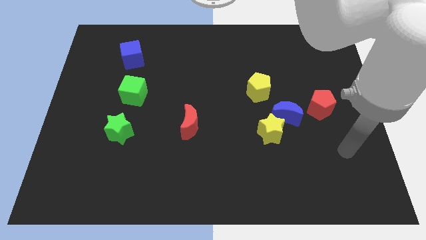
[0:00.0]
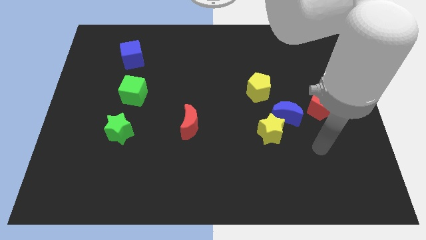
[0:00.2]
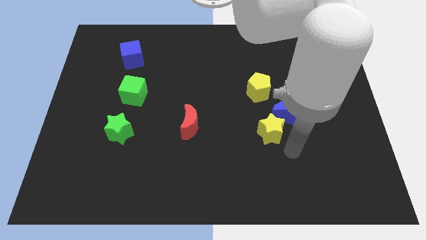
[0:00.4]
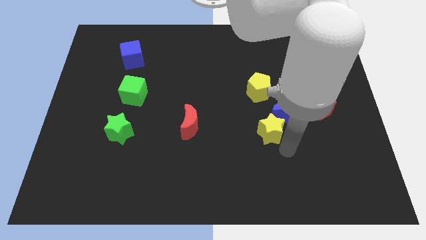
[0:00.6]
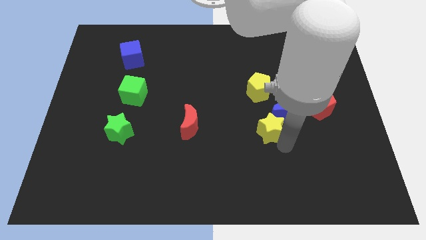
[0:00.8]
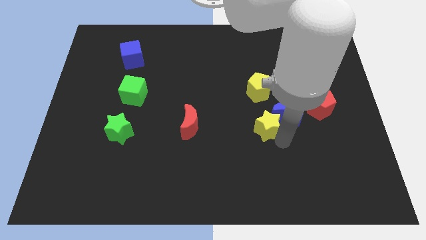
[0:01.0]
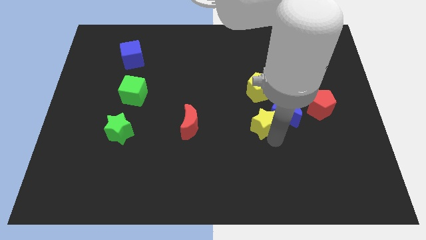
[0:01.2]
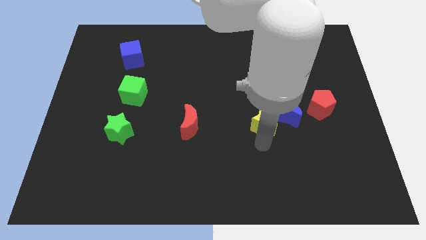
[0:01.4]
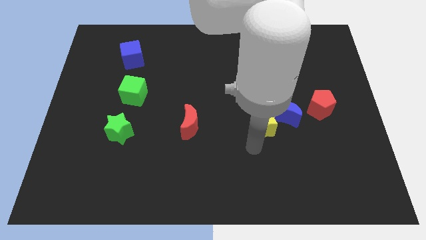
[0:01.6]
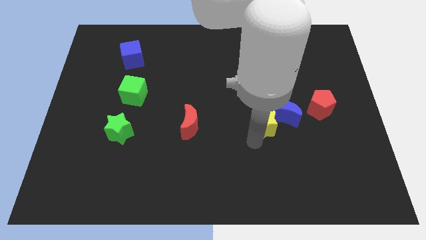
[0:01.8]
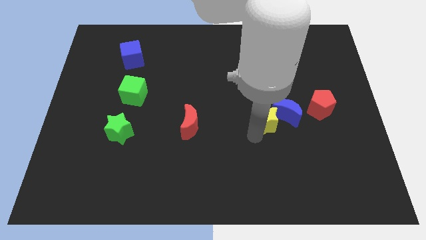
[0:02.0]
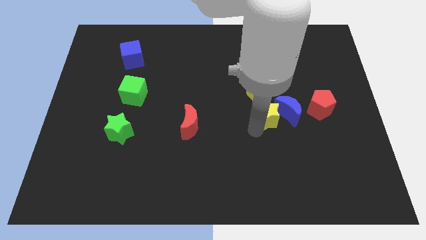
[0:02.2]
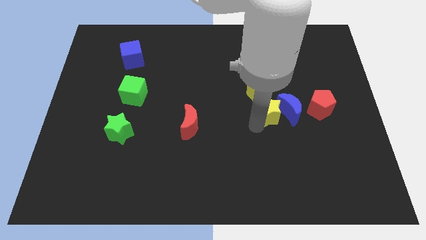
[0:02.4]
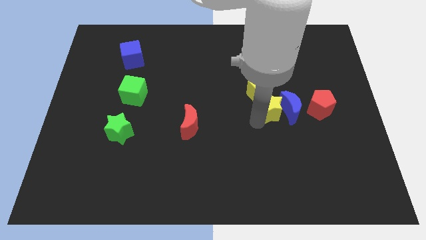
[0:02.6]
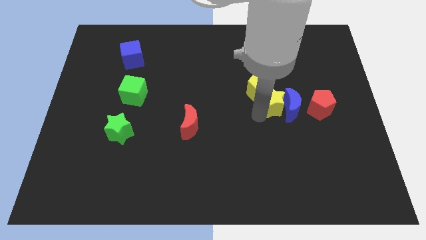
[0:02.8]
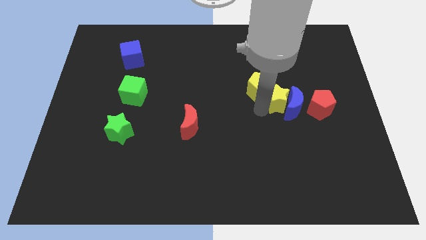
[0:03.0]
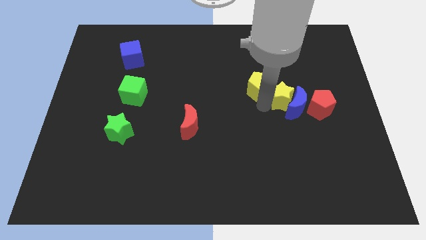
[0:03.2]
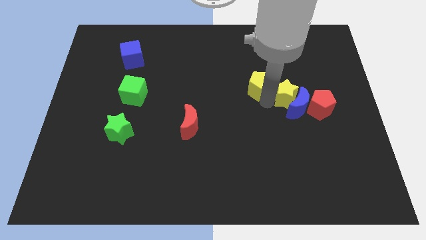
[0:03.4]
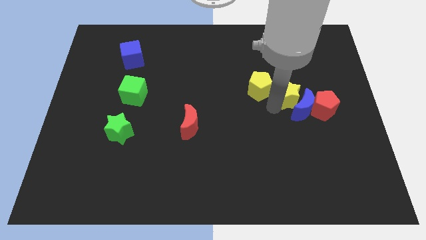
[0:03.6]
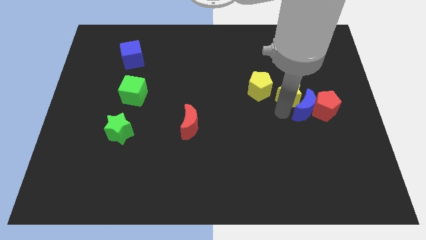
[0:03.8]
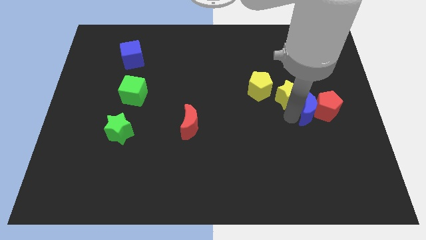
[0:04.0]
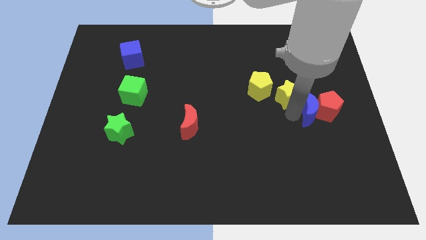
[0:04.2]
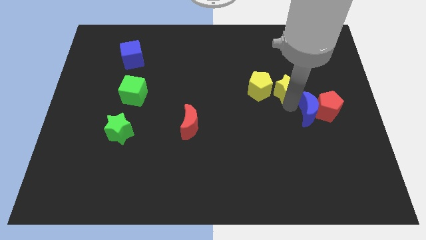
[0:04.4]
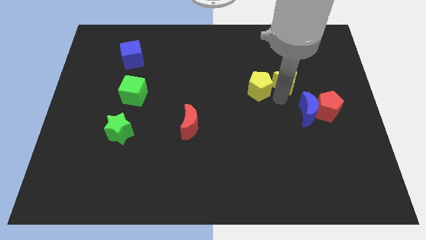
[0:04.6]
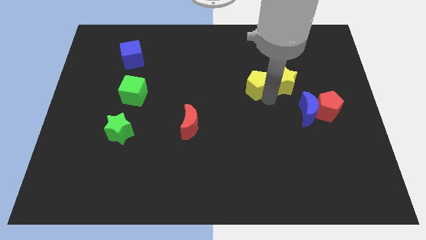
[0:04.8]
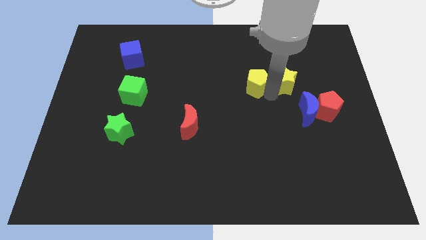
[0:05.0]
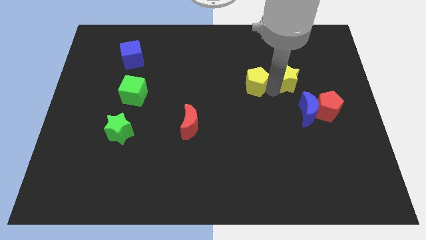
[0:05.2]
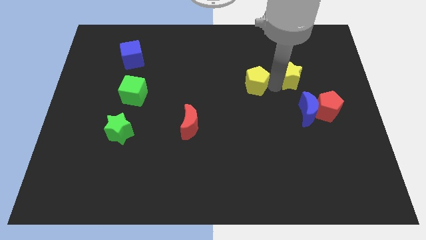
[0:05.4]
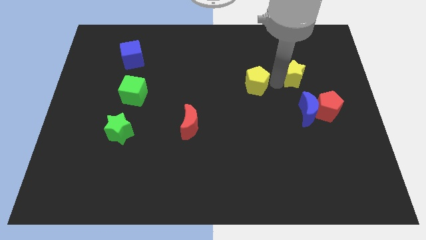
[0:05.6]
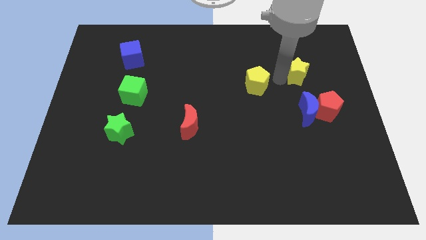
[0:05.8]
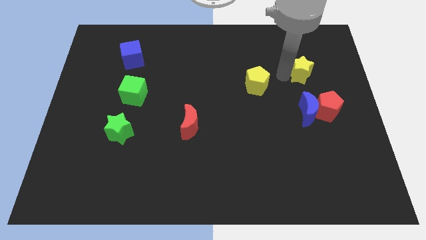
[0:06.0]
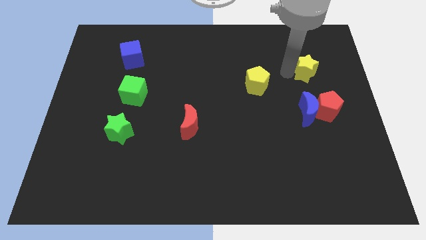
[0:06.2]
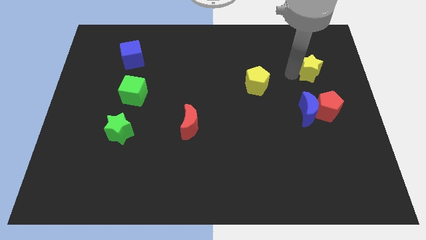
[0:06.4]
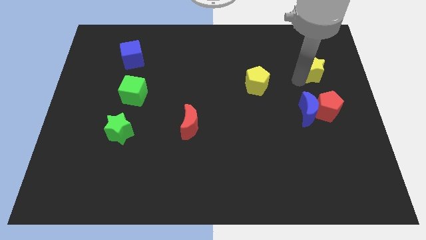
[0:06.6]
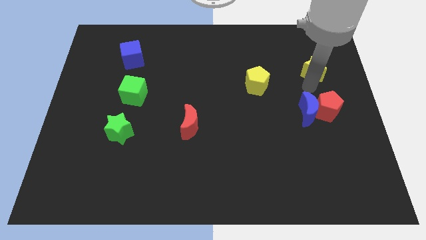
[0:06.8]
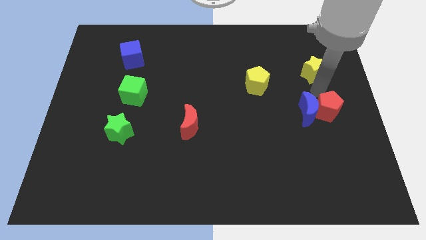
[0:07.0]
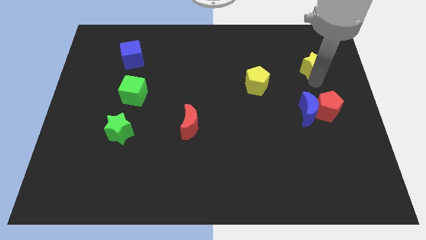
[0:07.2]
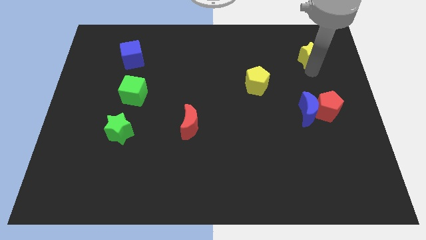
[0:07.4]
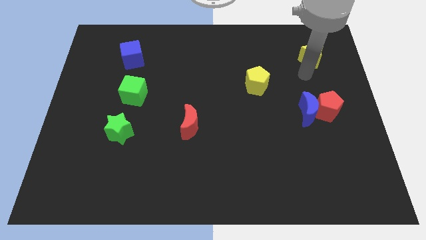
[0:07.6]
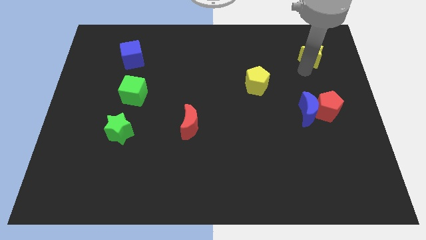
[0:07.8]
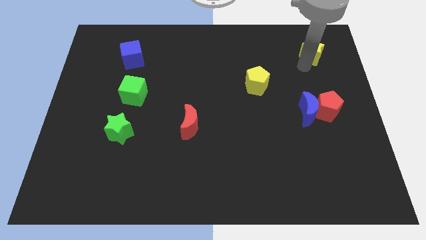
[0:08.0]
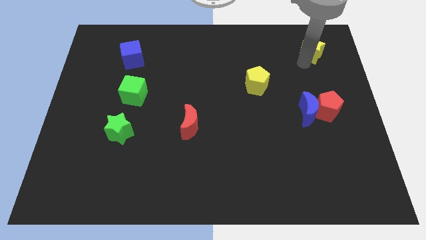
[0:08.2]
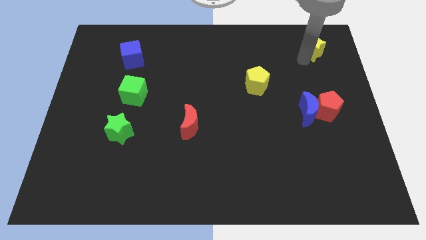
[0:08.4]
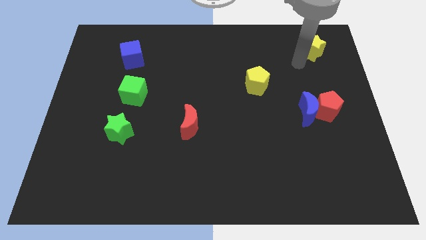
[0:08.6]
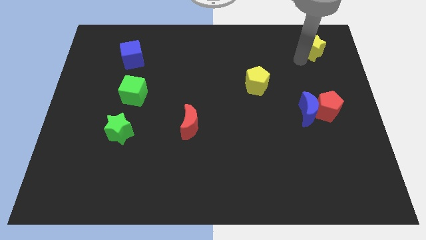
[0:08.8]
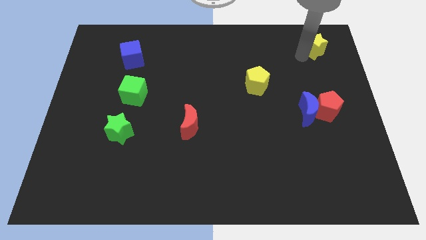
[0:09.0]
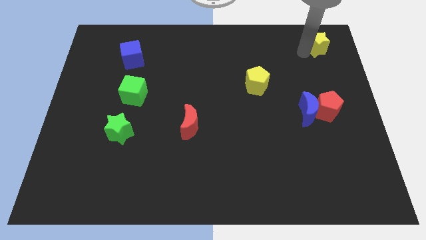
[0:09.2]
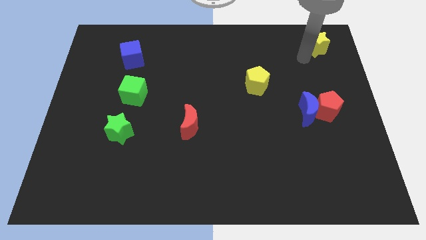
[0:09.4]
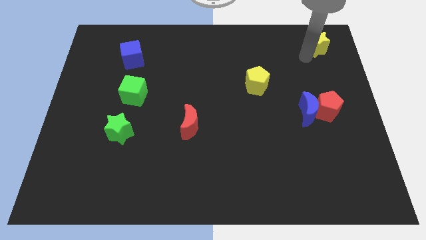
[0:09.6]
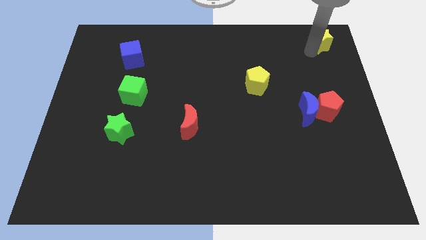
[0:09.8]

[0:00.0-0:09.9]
put the yellow star to the upper right corner

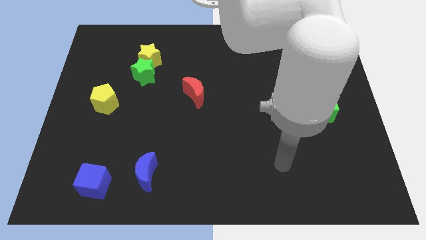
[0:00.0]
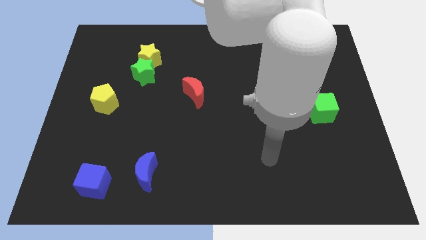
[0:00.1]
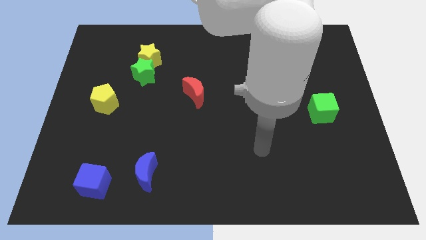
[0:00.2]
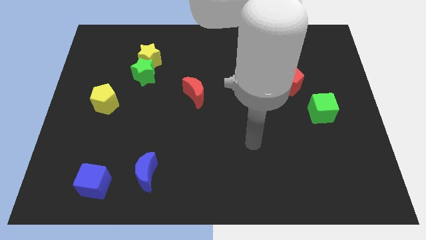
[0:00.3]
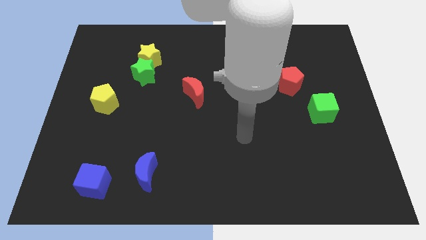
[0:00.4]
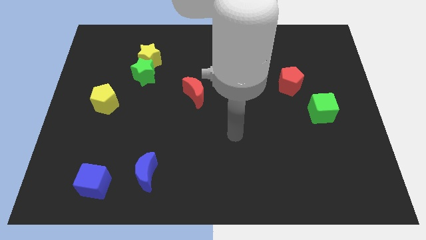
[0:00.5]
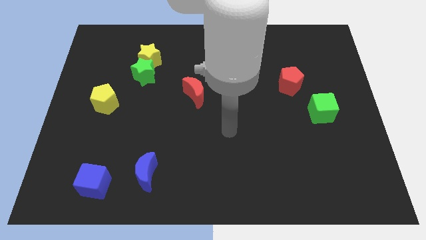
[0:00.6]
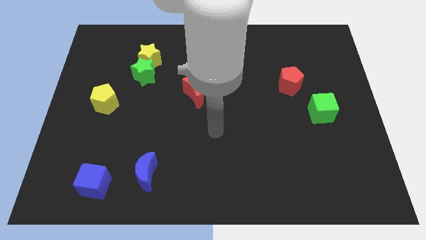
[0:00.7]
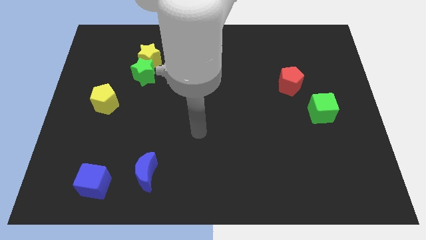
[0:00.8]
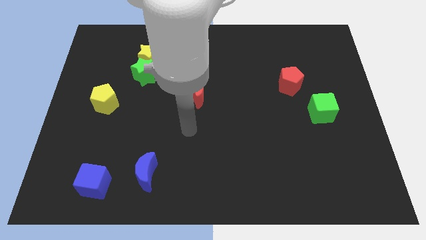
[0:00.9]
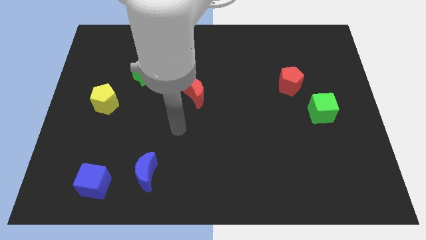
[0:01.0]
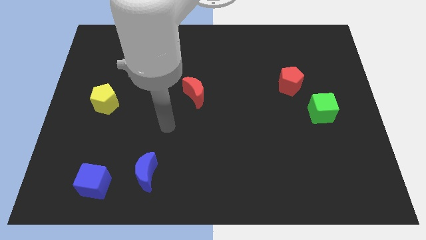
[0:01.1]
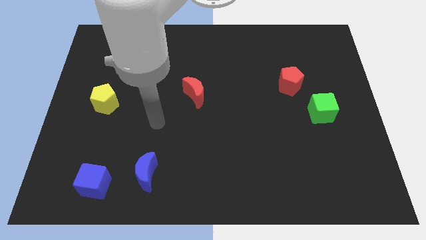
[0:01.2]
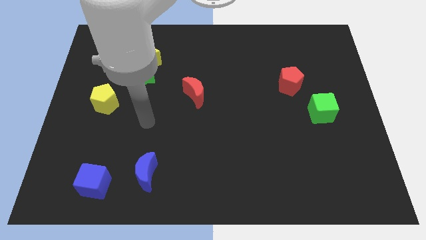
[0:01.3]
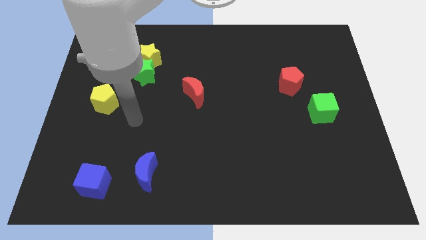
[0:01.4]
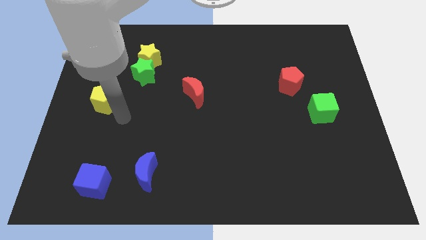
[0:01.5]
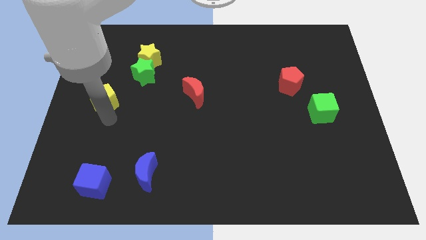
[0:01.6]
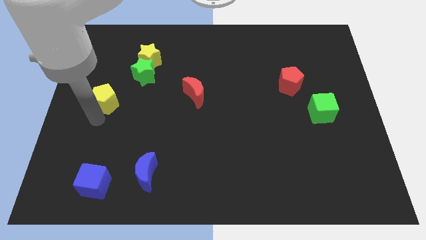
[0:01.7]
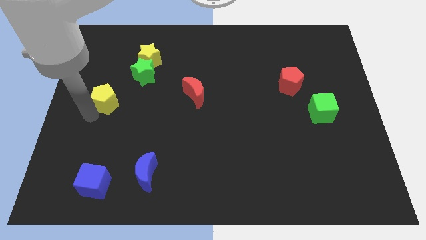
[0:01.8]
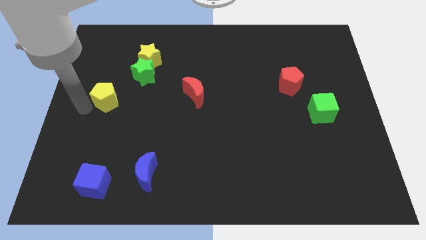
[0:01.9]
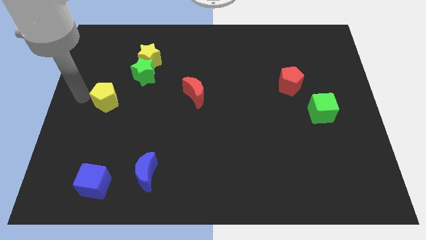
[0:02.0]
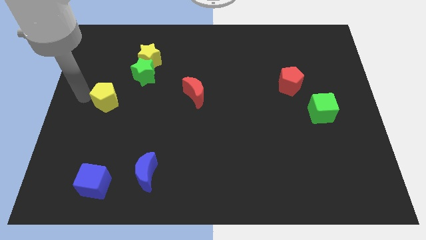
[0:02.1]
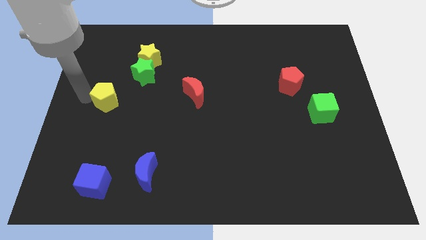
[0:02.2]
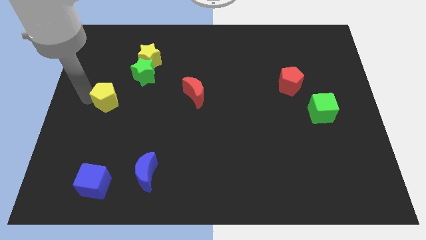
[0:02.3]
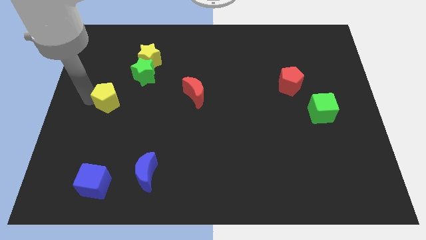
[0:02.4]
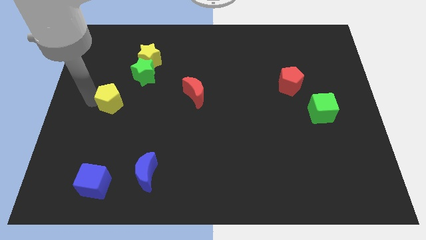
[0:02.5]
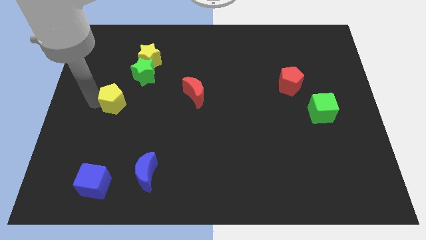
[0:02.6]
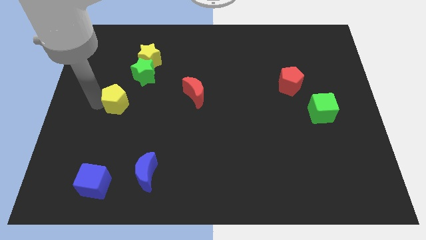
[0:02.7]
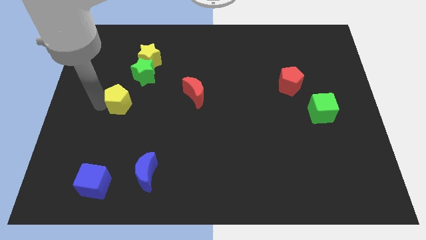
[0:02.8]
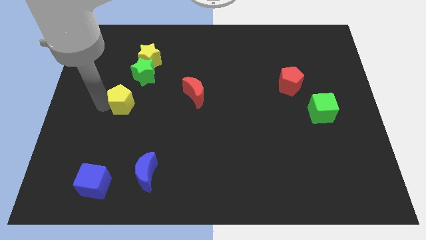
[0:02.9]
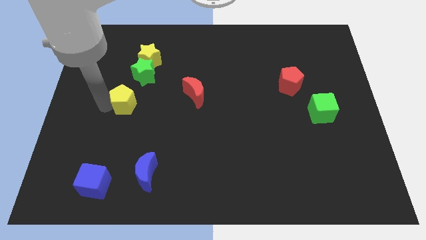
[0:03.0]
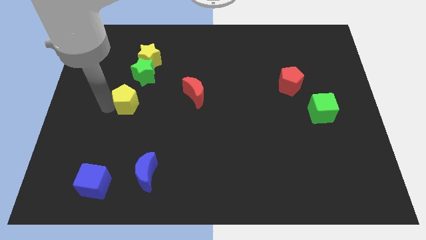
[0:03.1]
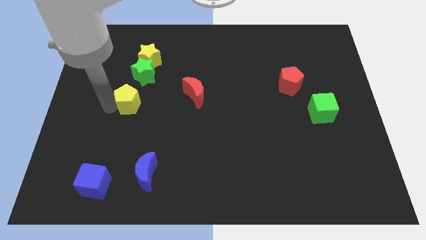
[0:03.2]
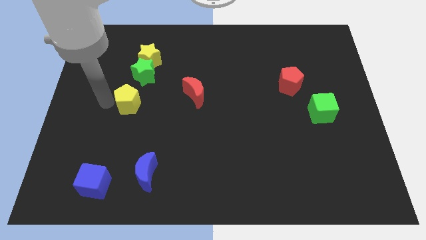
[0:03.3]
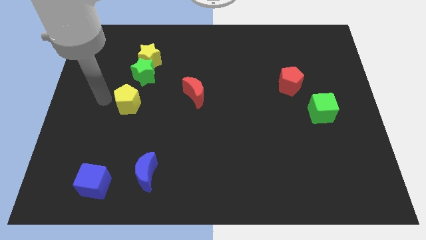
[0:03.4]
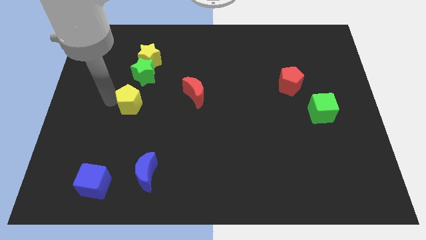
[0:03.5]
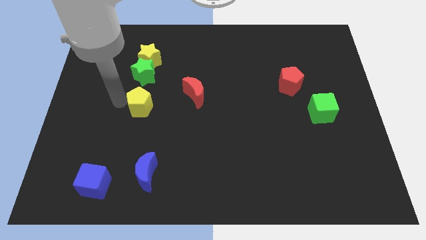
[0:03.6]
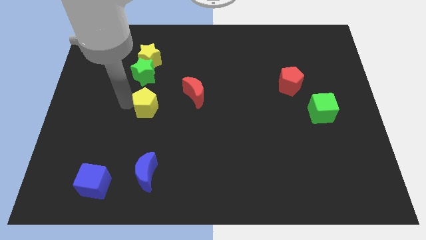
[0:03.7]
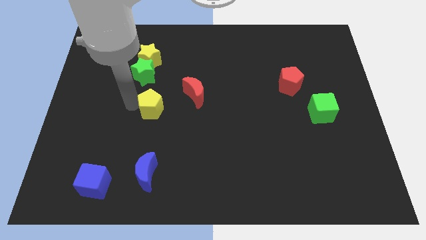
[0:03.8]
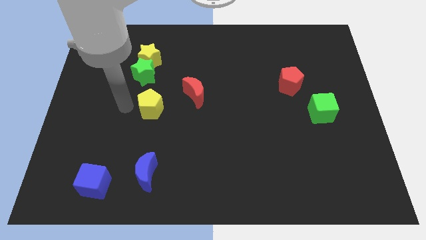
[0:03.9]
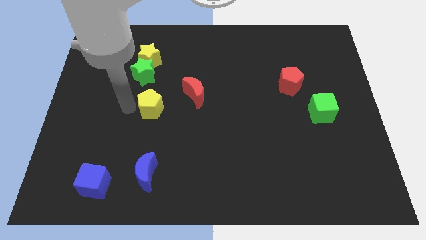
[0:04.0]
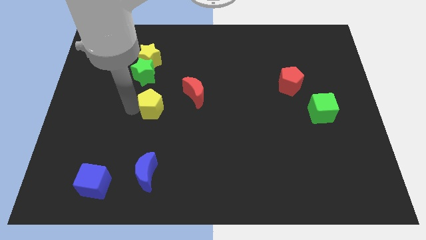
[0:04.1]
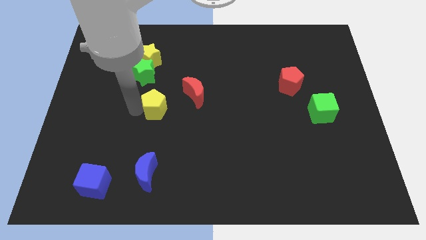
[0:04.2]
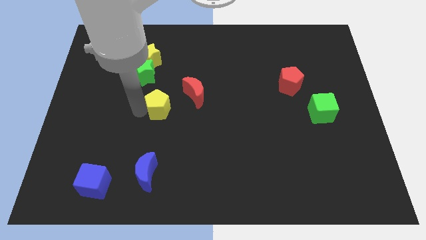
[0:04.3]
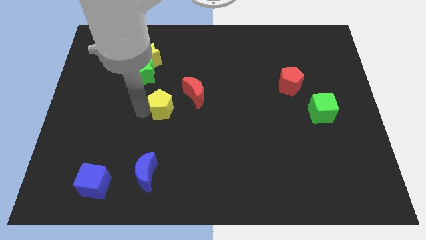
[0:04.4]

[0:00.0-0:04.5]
slide the yellow pentagon to the center
